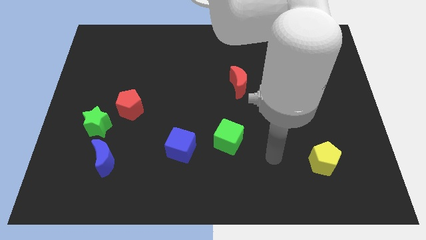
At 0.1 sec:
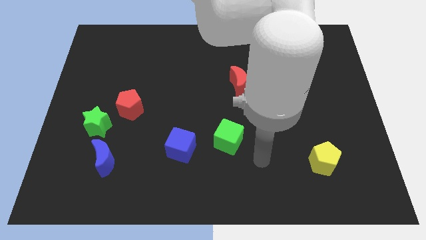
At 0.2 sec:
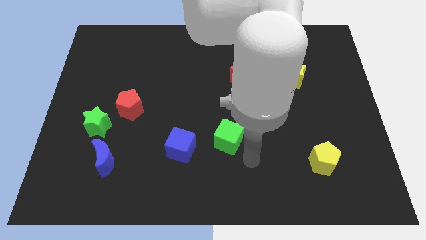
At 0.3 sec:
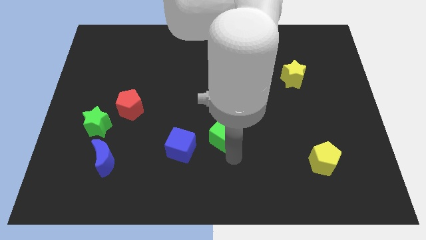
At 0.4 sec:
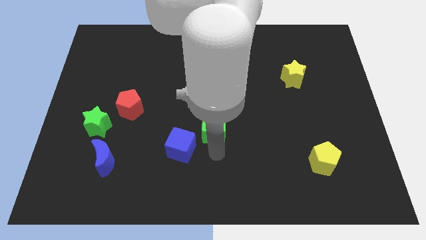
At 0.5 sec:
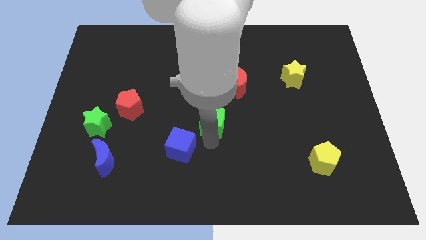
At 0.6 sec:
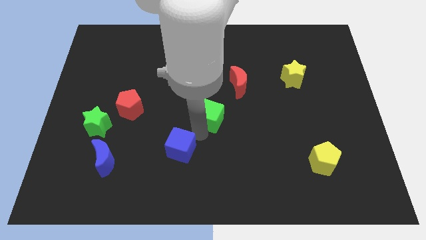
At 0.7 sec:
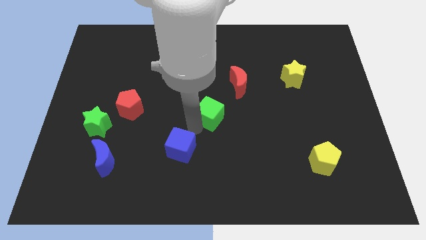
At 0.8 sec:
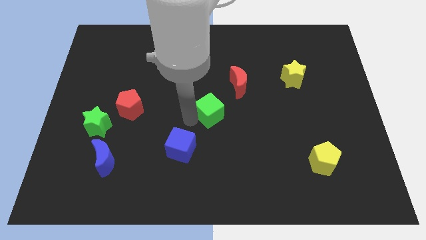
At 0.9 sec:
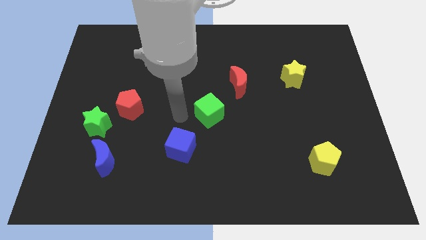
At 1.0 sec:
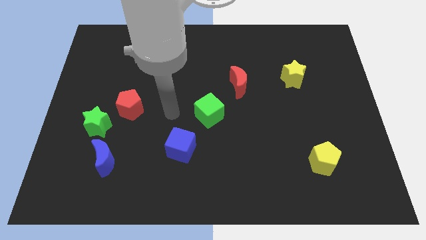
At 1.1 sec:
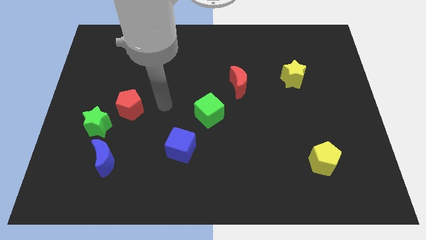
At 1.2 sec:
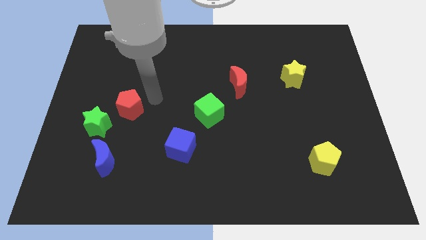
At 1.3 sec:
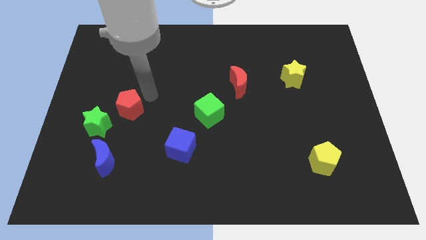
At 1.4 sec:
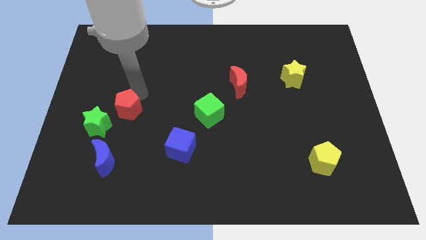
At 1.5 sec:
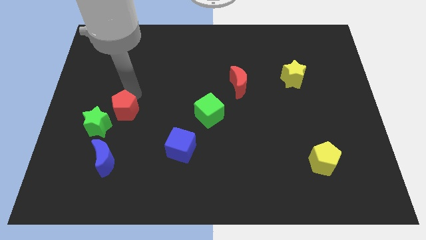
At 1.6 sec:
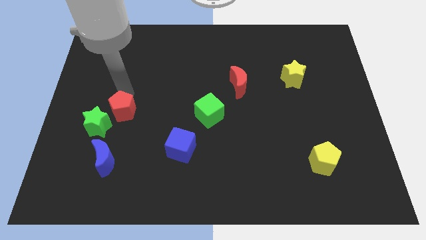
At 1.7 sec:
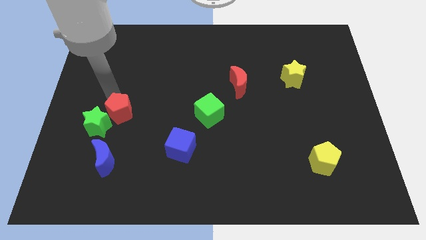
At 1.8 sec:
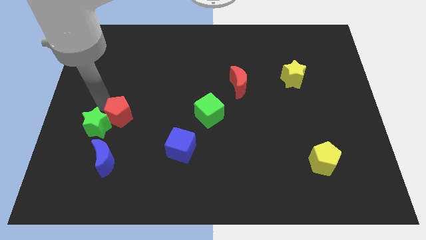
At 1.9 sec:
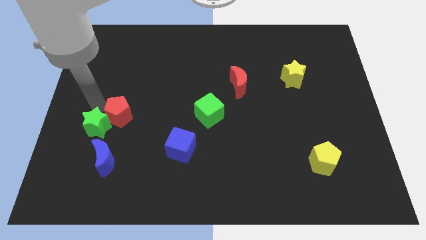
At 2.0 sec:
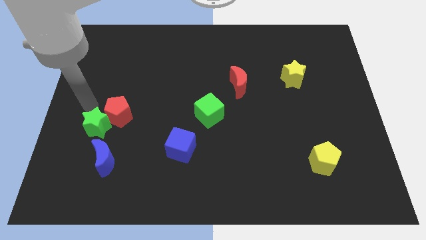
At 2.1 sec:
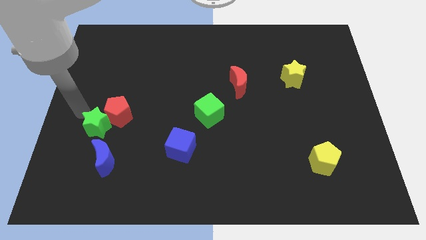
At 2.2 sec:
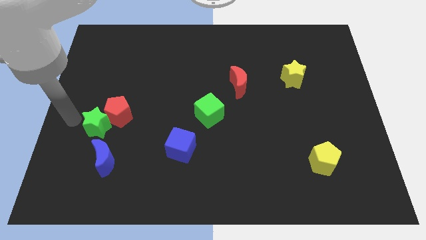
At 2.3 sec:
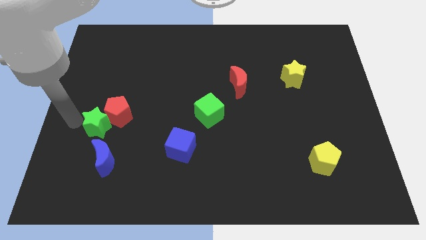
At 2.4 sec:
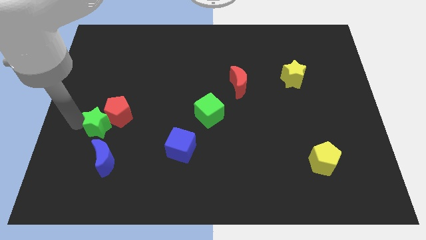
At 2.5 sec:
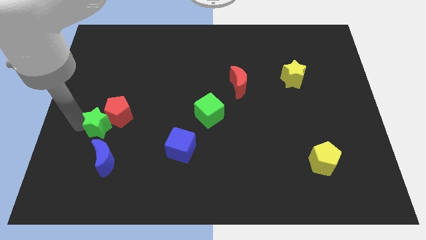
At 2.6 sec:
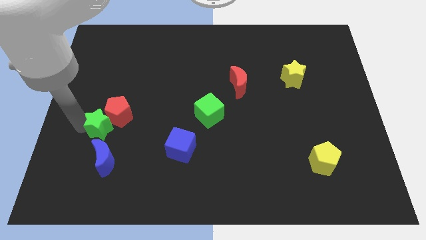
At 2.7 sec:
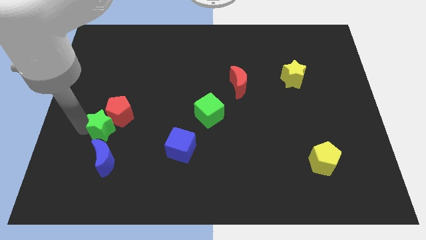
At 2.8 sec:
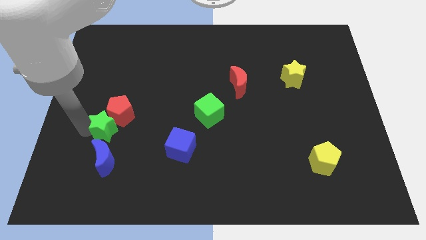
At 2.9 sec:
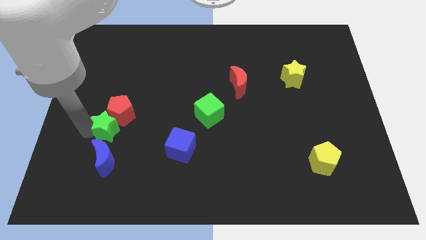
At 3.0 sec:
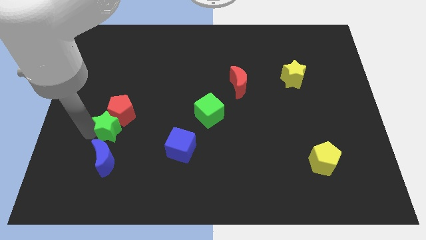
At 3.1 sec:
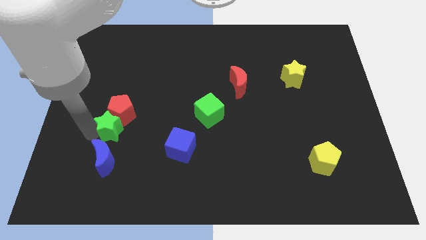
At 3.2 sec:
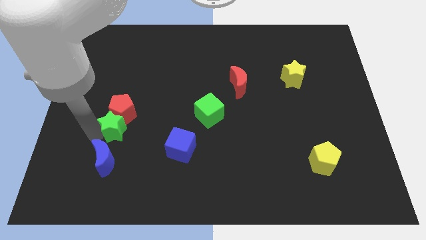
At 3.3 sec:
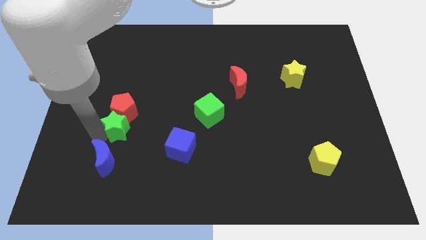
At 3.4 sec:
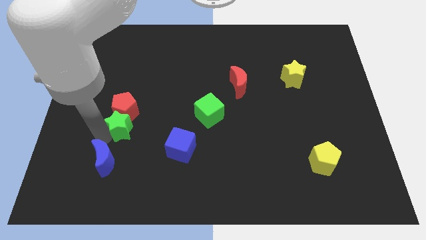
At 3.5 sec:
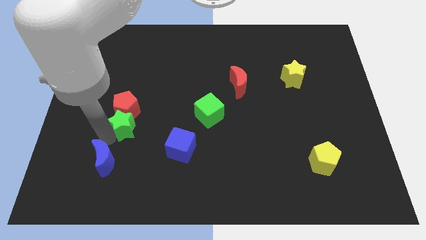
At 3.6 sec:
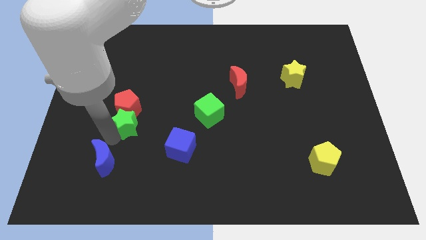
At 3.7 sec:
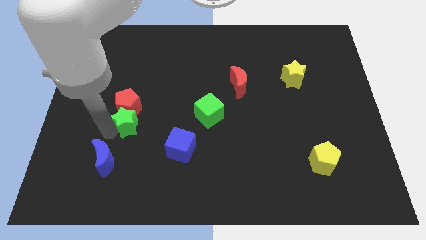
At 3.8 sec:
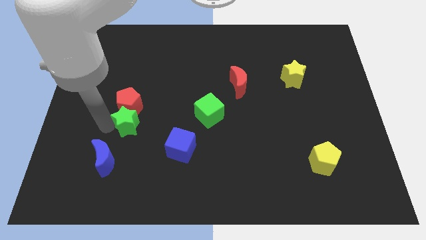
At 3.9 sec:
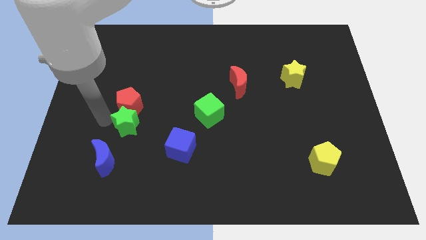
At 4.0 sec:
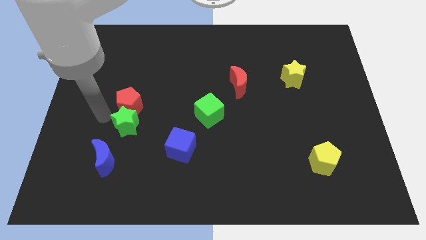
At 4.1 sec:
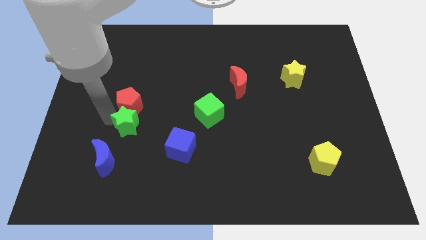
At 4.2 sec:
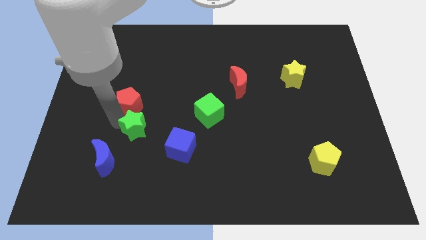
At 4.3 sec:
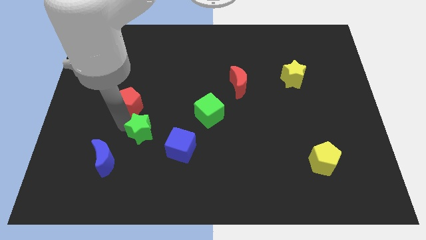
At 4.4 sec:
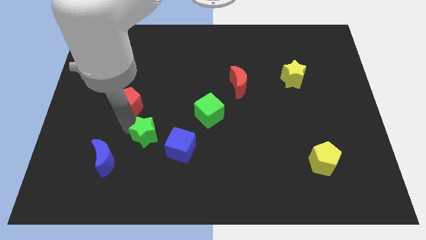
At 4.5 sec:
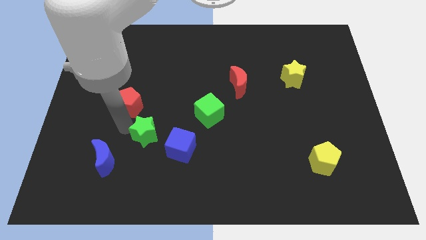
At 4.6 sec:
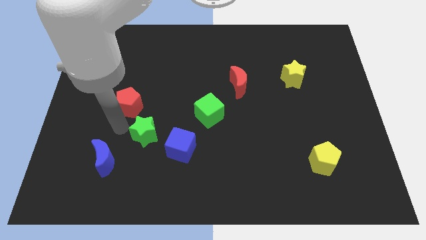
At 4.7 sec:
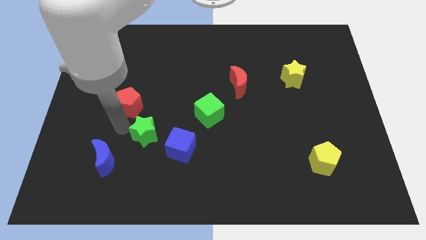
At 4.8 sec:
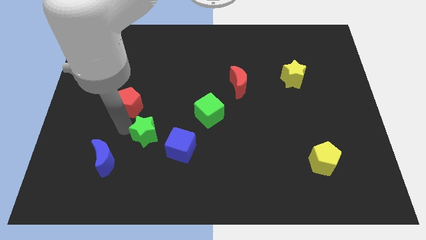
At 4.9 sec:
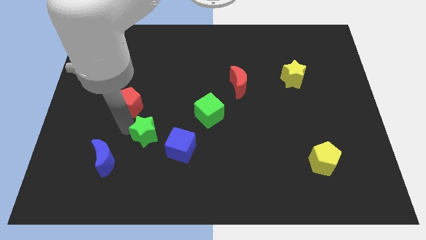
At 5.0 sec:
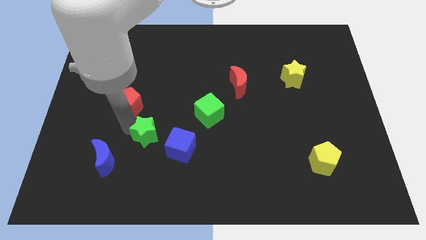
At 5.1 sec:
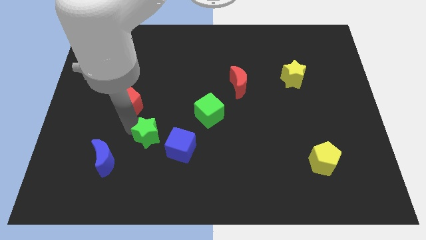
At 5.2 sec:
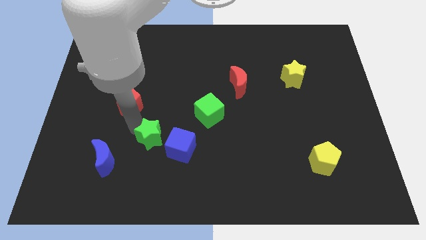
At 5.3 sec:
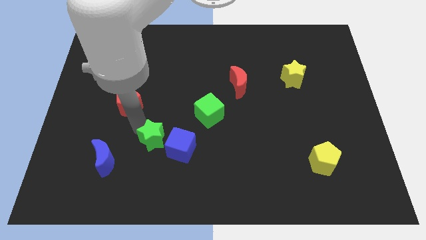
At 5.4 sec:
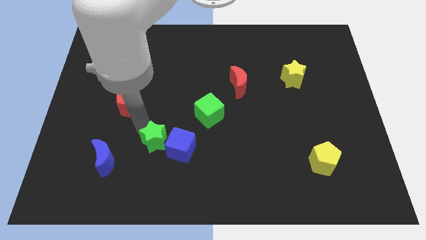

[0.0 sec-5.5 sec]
move the green star to the blue cube

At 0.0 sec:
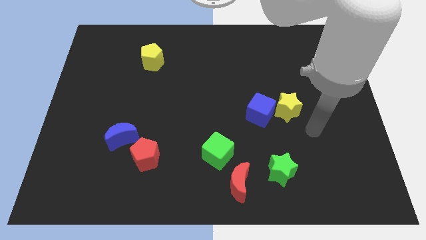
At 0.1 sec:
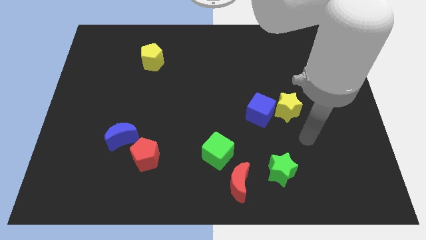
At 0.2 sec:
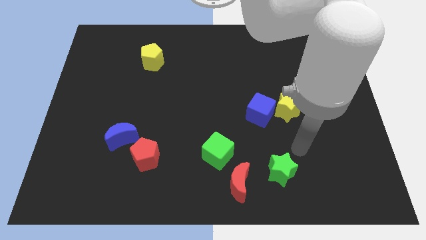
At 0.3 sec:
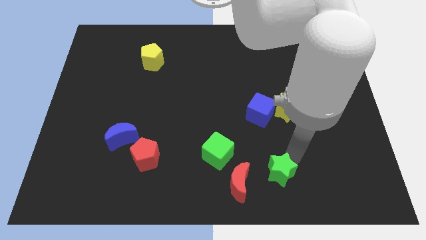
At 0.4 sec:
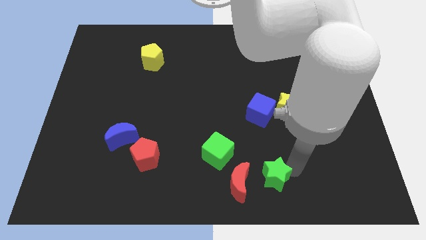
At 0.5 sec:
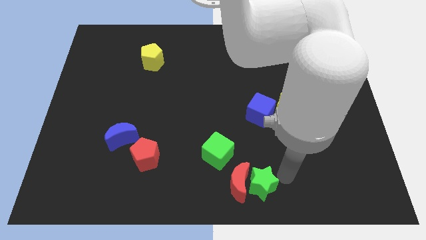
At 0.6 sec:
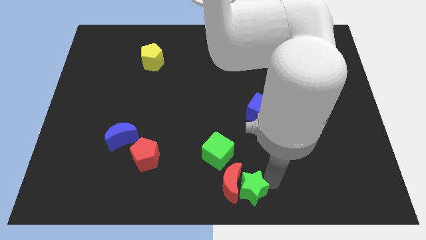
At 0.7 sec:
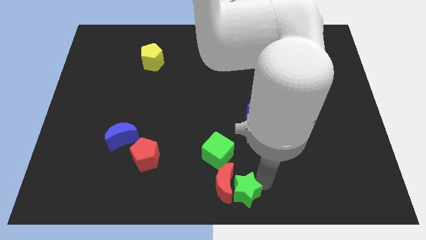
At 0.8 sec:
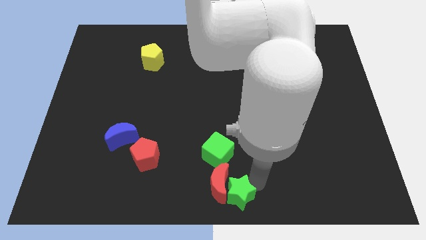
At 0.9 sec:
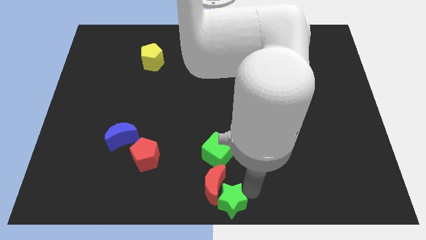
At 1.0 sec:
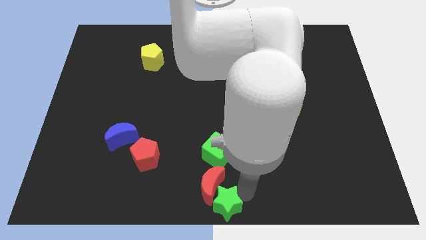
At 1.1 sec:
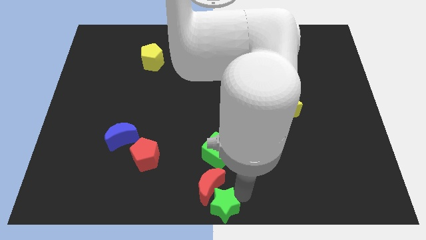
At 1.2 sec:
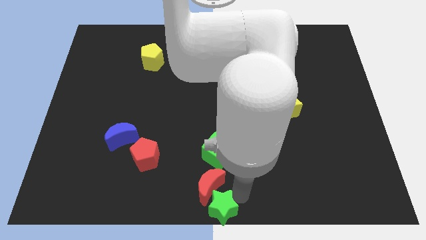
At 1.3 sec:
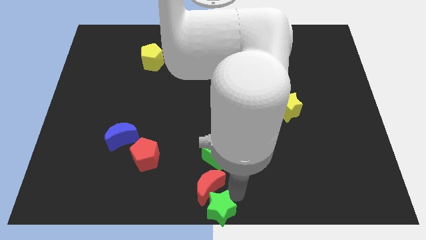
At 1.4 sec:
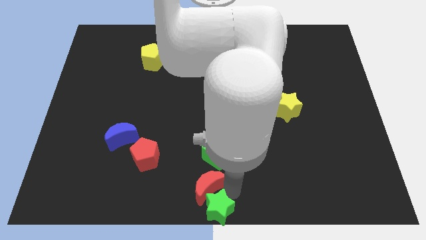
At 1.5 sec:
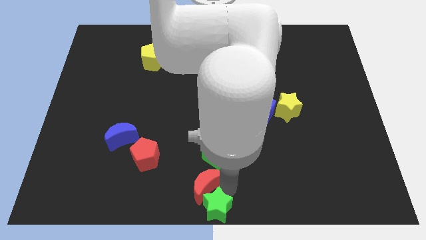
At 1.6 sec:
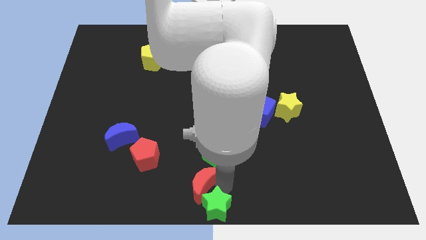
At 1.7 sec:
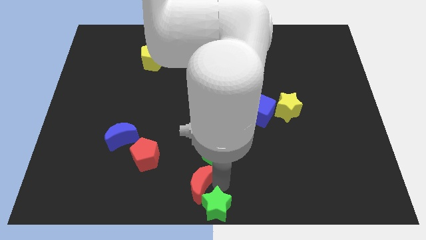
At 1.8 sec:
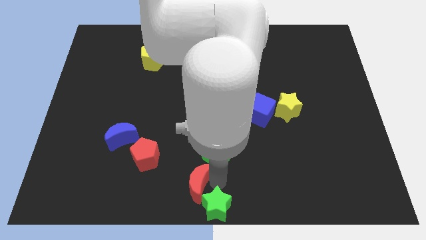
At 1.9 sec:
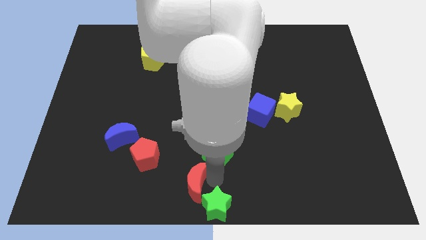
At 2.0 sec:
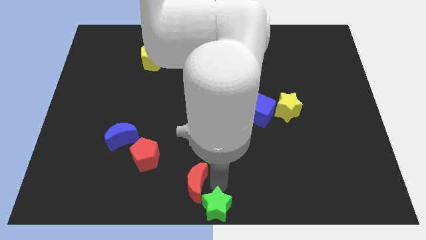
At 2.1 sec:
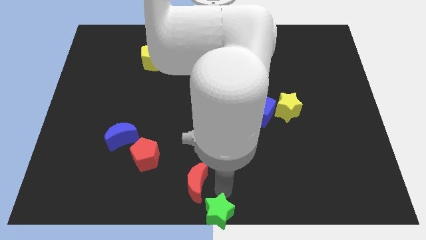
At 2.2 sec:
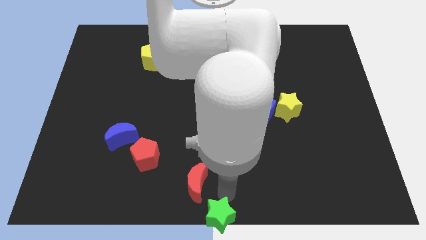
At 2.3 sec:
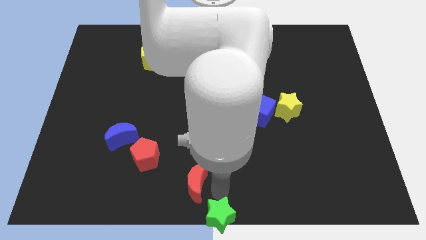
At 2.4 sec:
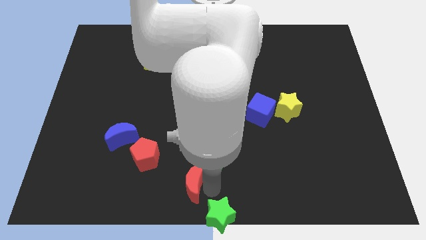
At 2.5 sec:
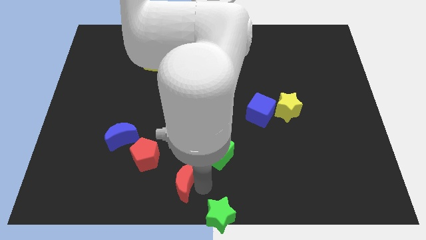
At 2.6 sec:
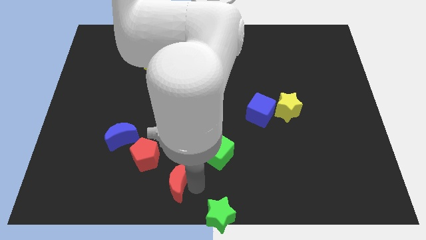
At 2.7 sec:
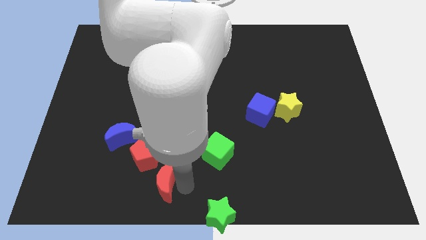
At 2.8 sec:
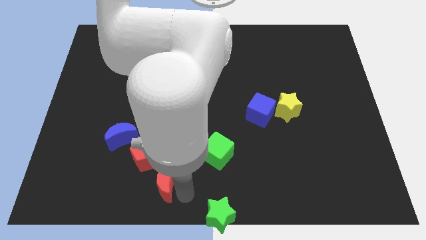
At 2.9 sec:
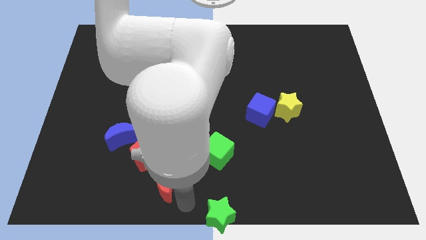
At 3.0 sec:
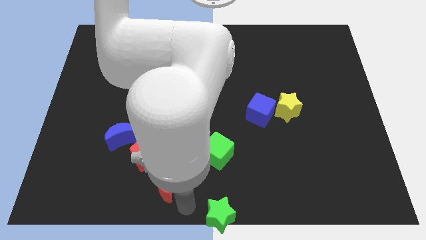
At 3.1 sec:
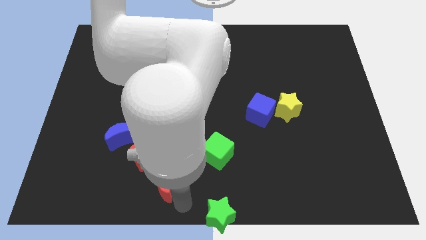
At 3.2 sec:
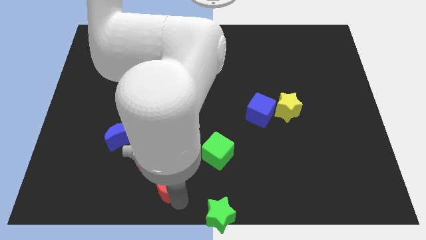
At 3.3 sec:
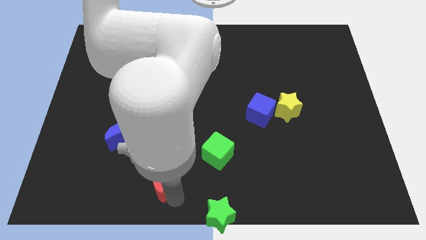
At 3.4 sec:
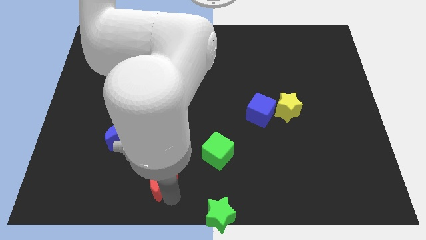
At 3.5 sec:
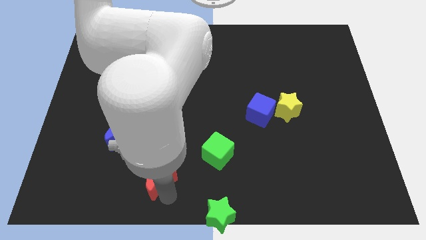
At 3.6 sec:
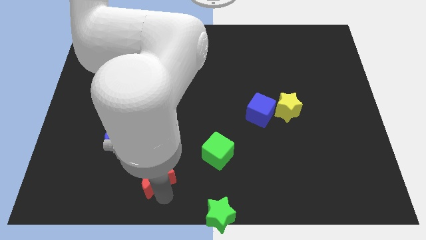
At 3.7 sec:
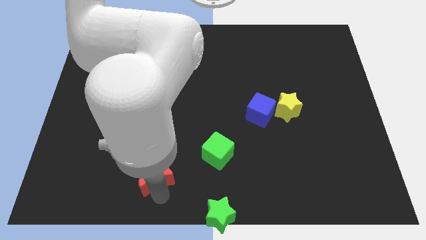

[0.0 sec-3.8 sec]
move the red moon next to the red pentagon
